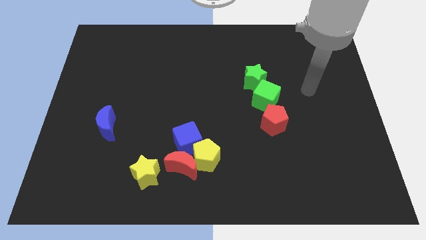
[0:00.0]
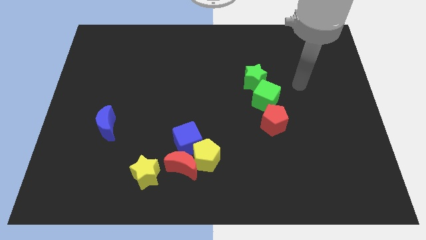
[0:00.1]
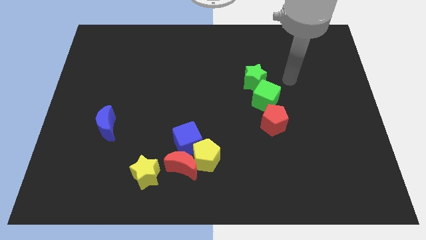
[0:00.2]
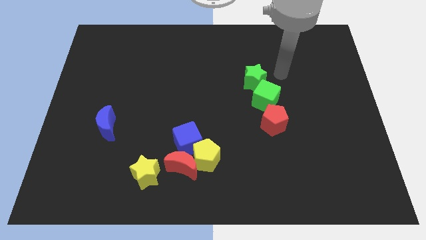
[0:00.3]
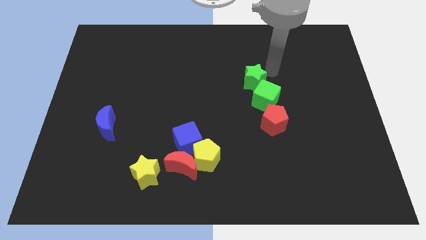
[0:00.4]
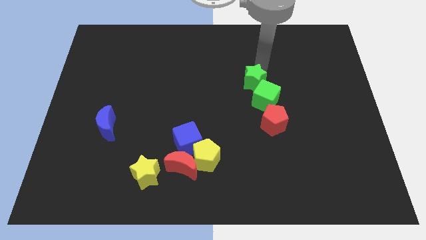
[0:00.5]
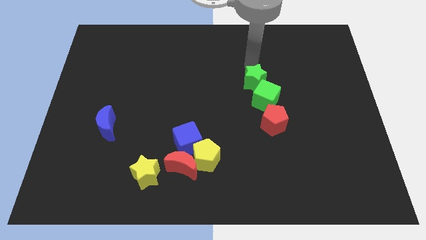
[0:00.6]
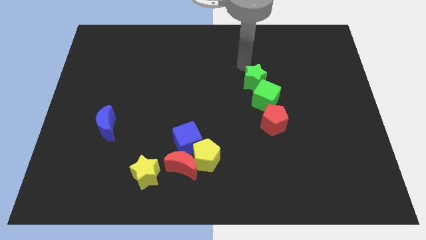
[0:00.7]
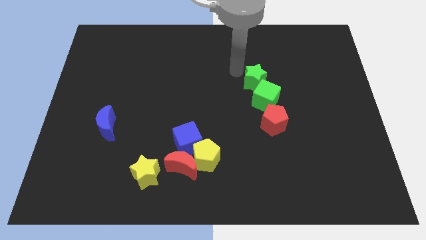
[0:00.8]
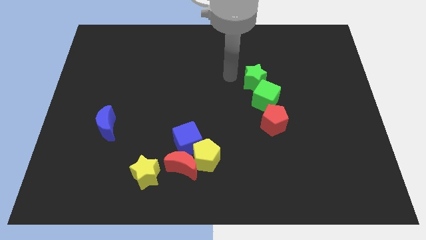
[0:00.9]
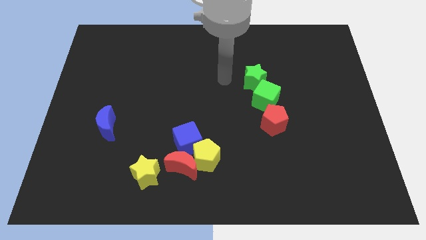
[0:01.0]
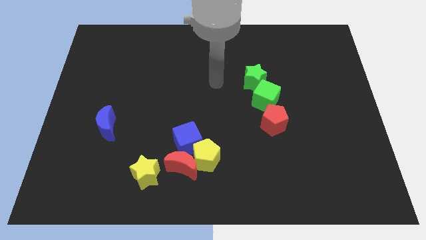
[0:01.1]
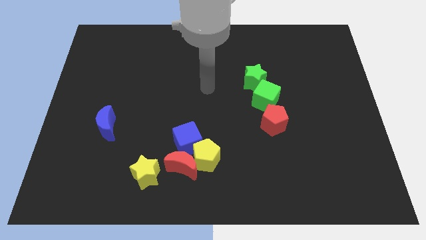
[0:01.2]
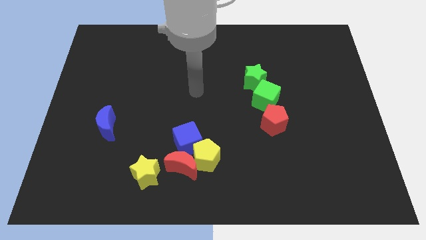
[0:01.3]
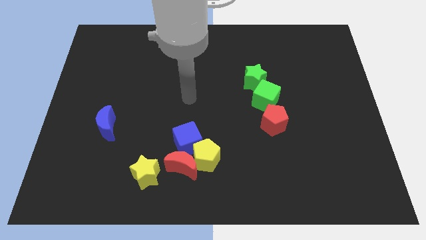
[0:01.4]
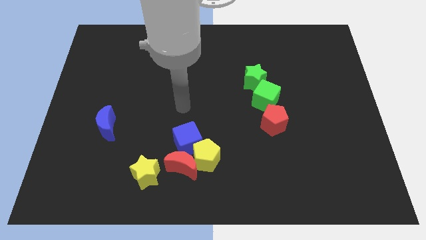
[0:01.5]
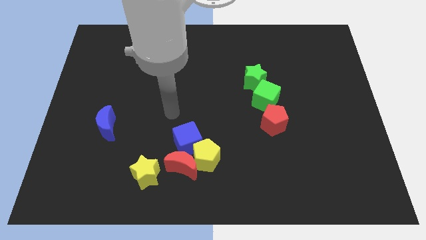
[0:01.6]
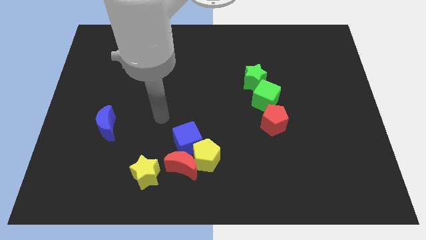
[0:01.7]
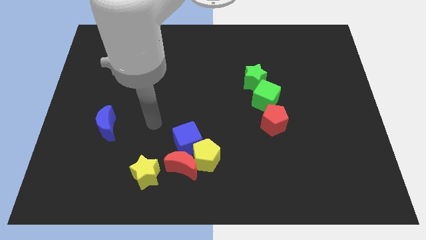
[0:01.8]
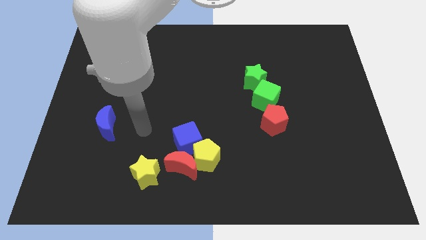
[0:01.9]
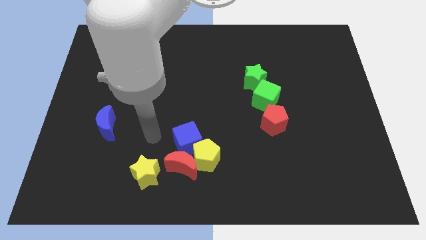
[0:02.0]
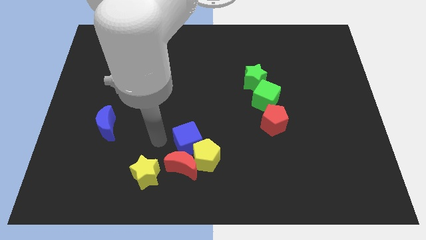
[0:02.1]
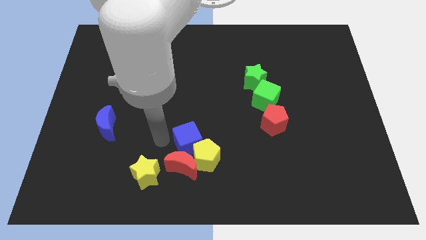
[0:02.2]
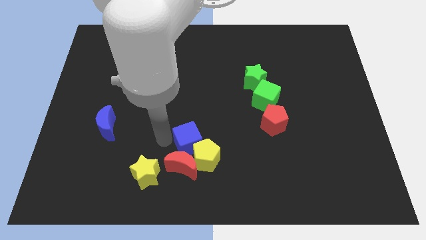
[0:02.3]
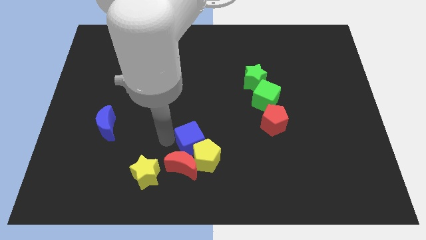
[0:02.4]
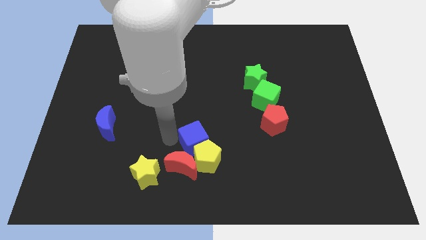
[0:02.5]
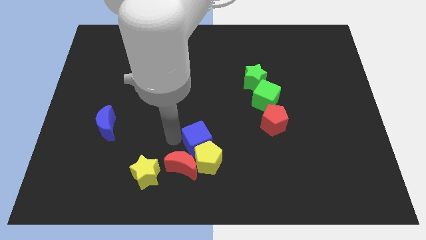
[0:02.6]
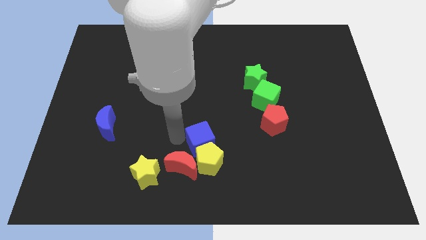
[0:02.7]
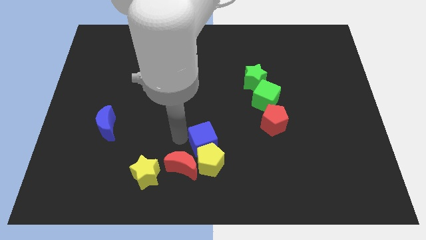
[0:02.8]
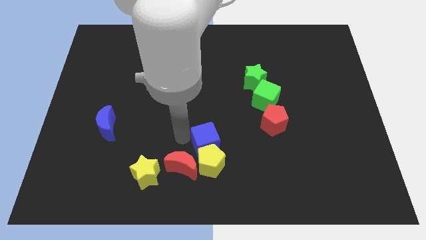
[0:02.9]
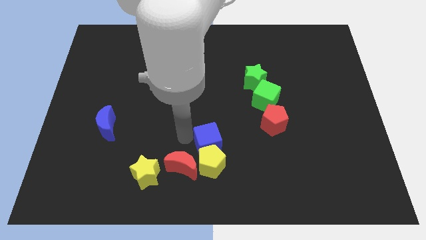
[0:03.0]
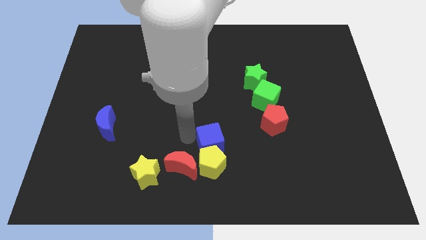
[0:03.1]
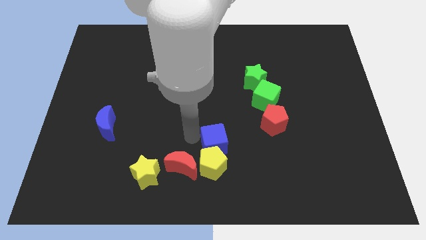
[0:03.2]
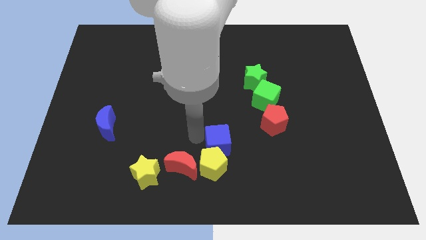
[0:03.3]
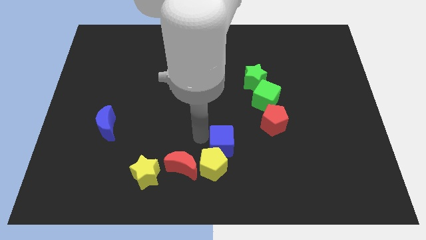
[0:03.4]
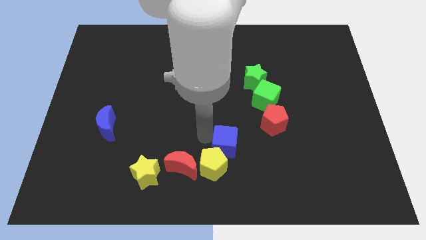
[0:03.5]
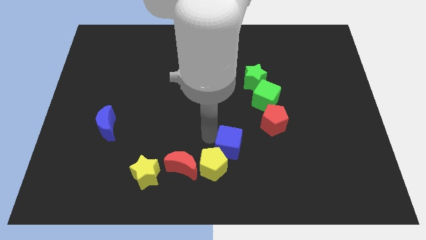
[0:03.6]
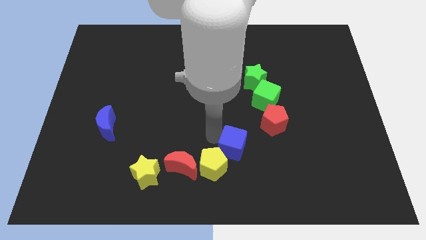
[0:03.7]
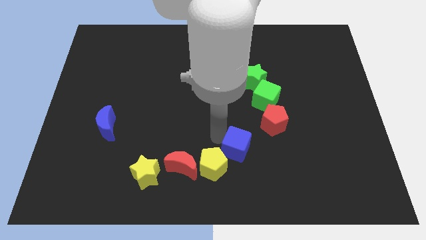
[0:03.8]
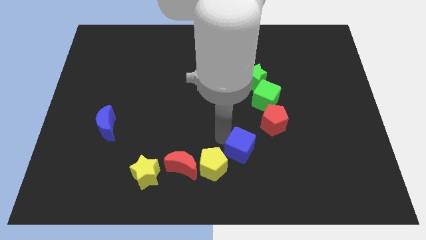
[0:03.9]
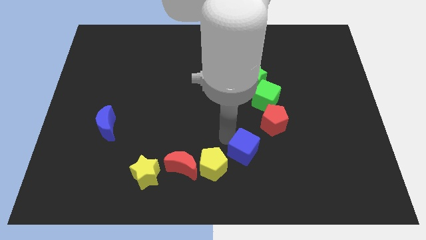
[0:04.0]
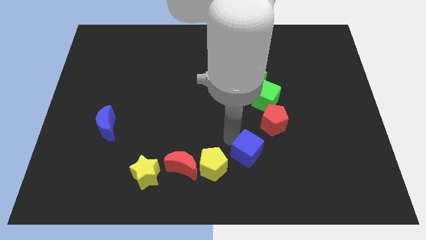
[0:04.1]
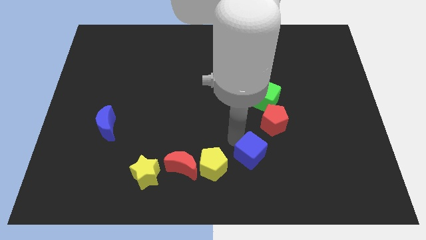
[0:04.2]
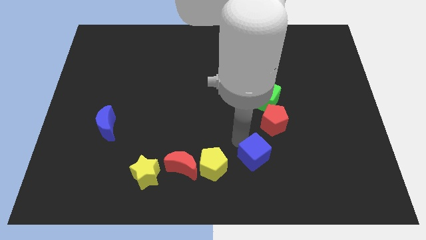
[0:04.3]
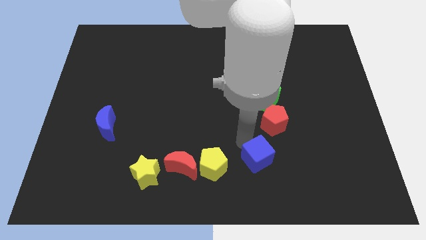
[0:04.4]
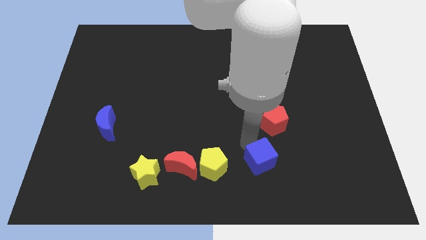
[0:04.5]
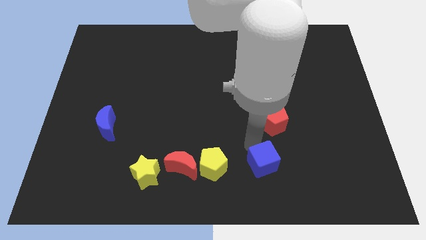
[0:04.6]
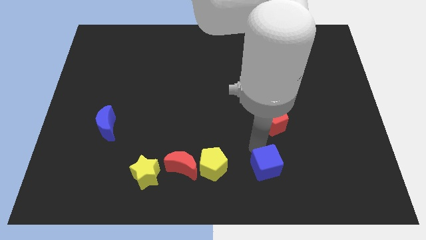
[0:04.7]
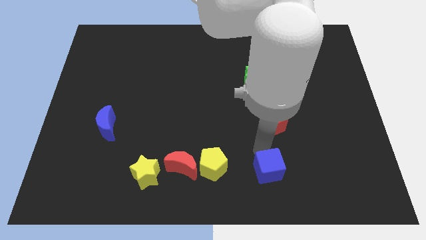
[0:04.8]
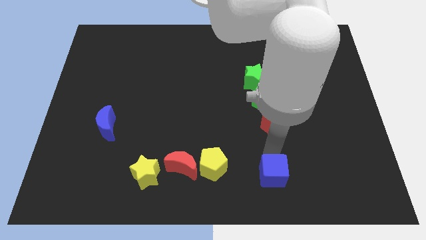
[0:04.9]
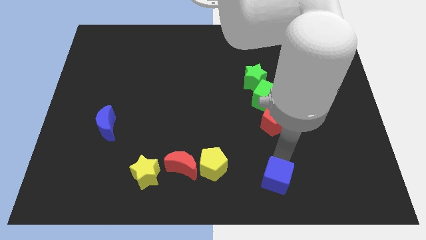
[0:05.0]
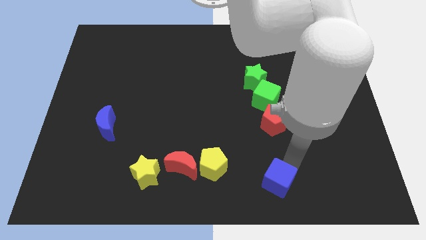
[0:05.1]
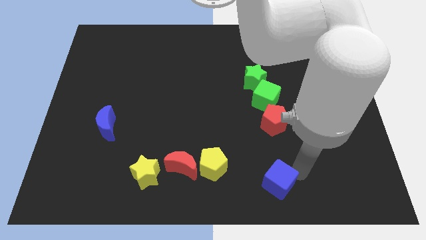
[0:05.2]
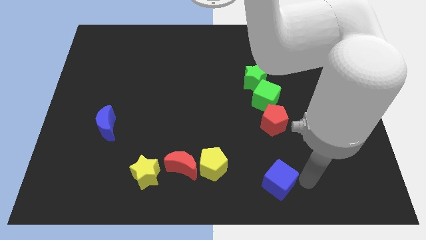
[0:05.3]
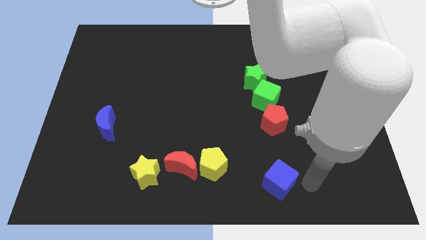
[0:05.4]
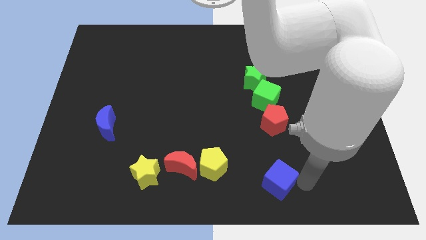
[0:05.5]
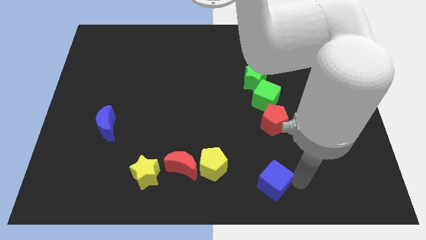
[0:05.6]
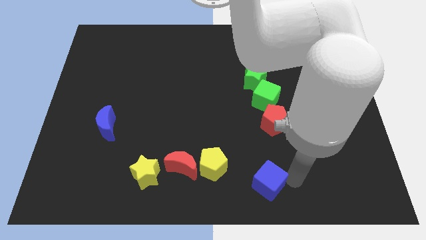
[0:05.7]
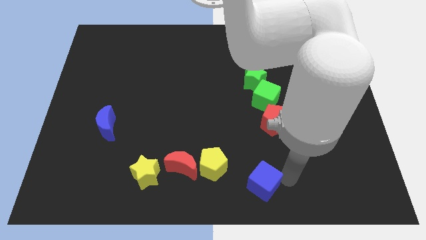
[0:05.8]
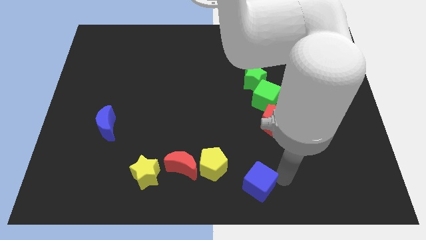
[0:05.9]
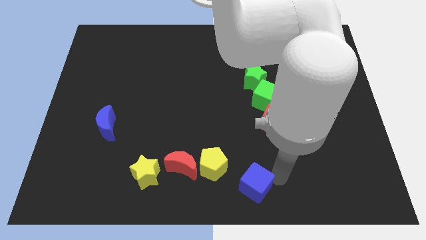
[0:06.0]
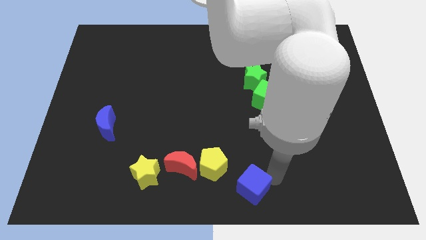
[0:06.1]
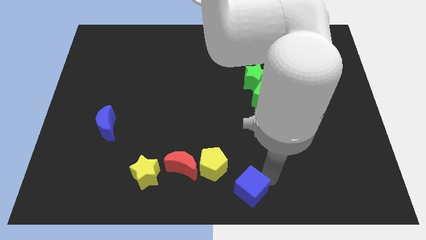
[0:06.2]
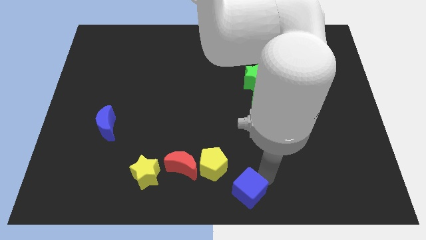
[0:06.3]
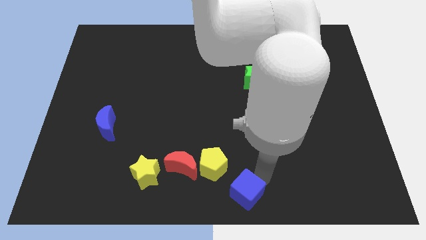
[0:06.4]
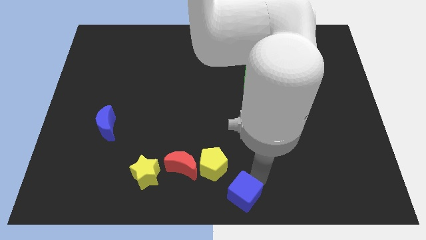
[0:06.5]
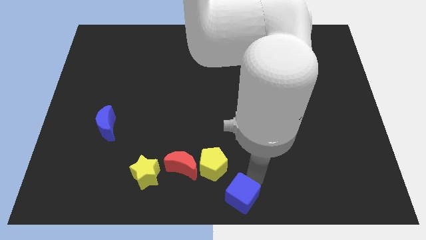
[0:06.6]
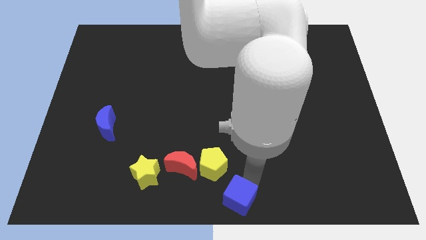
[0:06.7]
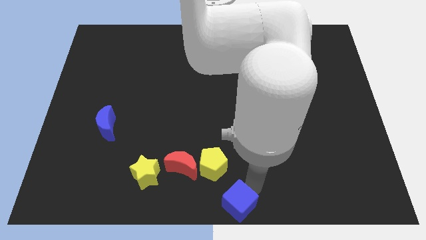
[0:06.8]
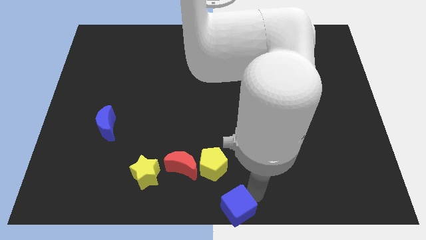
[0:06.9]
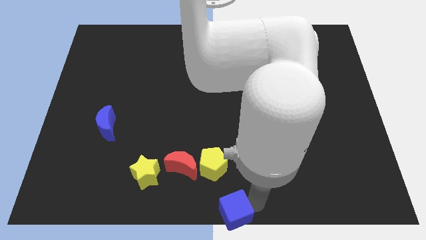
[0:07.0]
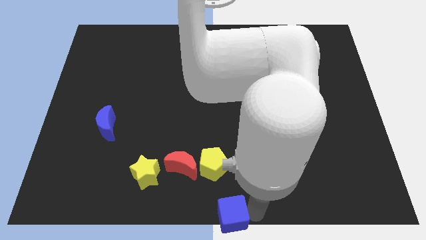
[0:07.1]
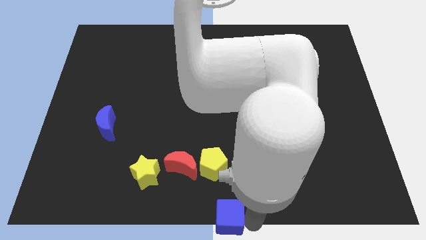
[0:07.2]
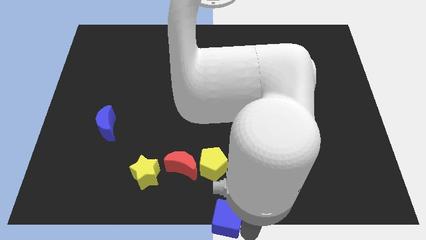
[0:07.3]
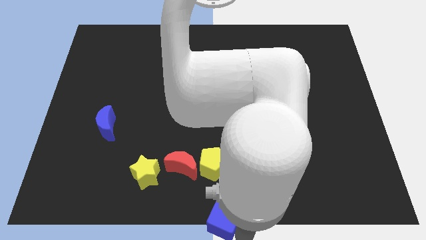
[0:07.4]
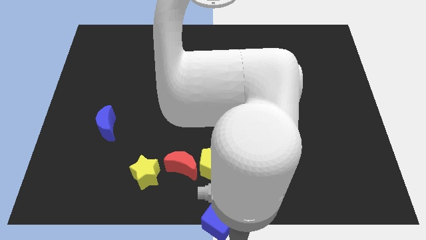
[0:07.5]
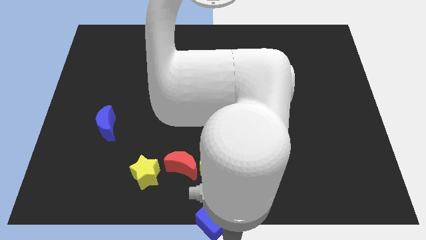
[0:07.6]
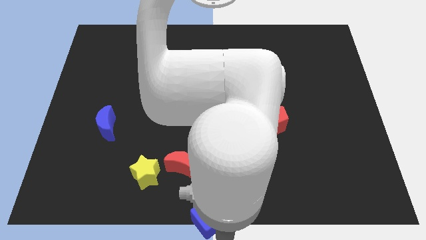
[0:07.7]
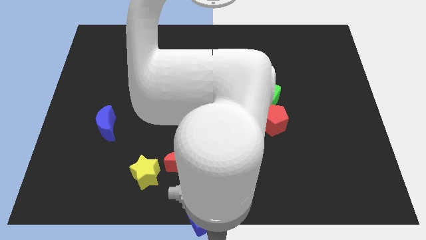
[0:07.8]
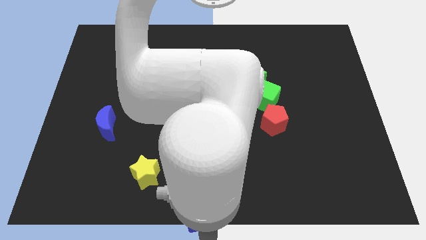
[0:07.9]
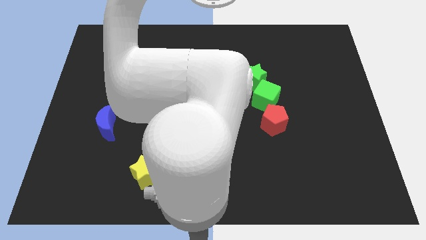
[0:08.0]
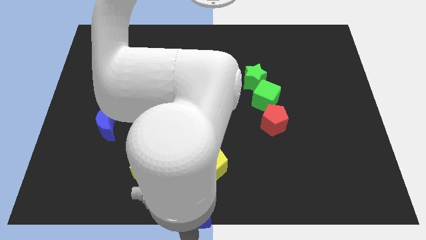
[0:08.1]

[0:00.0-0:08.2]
push the blue cube to the bottom left side of the yellow pentagon
